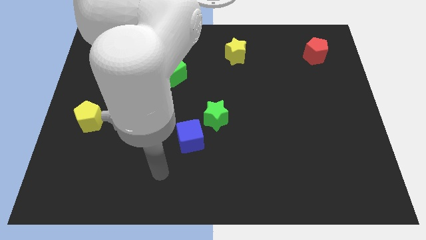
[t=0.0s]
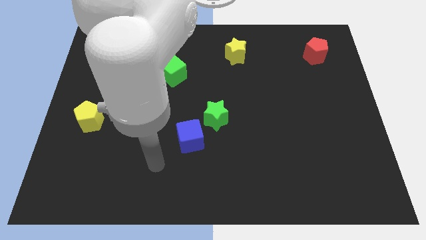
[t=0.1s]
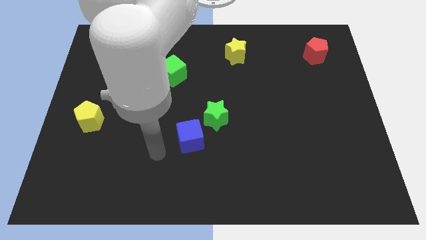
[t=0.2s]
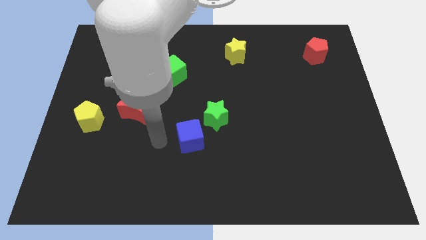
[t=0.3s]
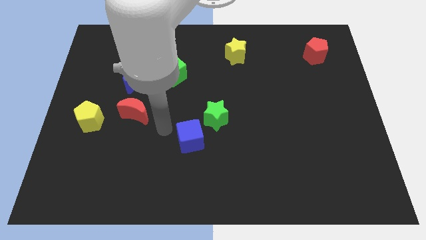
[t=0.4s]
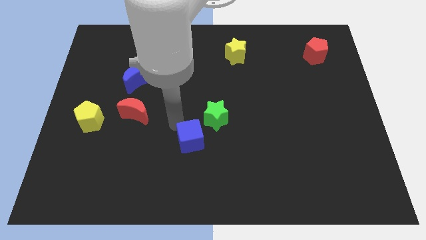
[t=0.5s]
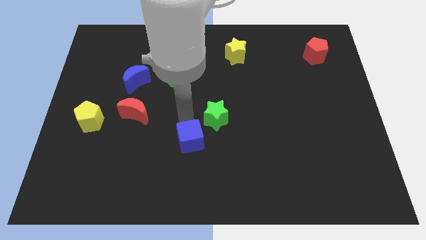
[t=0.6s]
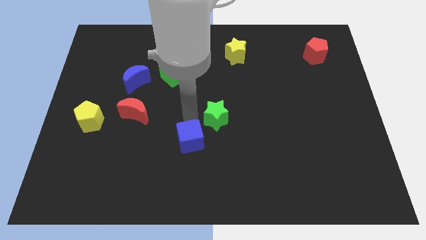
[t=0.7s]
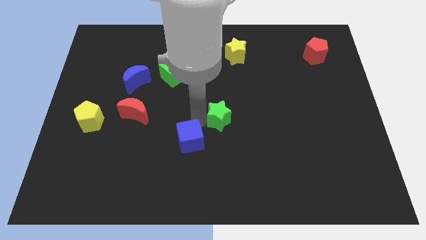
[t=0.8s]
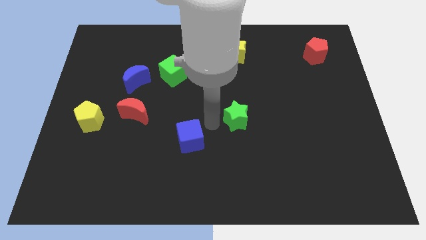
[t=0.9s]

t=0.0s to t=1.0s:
move the blue cube away from the green star

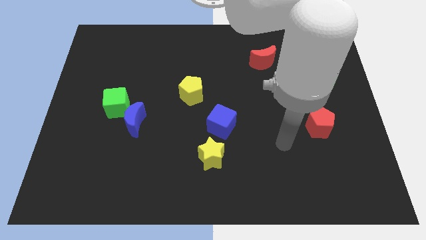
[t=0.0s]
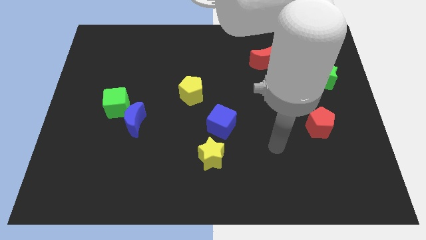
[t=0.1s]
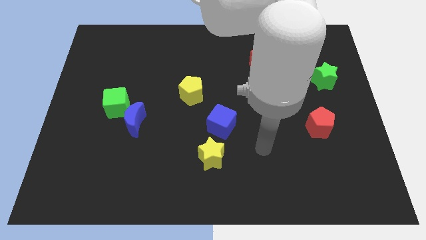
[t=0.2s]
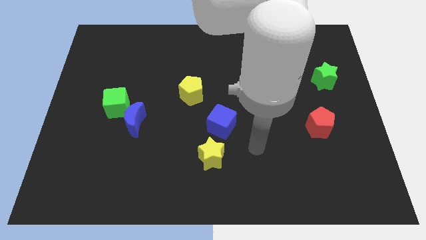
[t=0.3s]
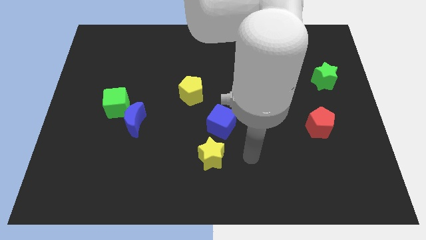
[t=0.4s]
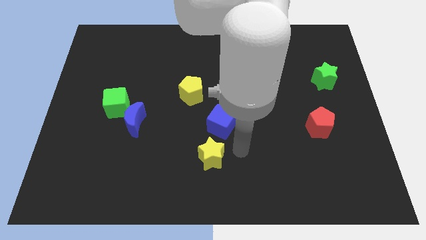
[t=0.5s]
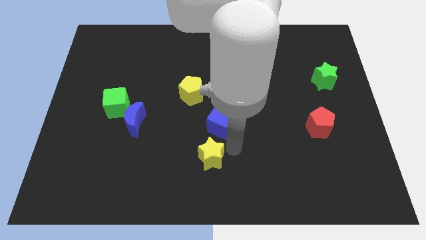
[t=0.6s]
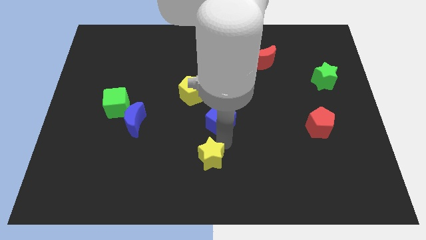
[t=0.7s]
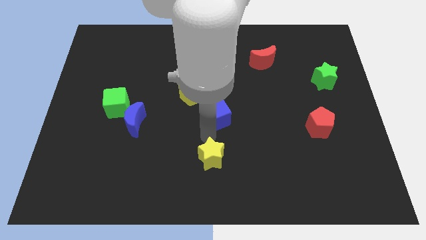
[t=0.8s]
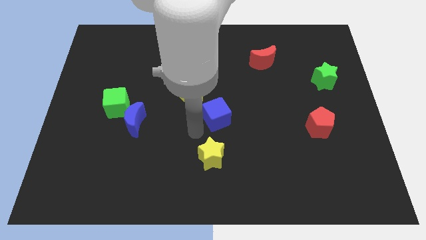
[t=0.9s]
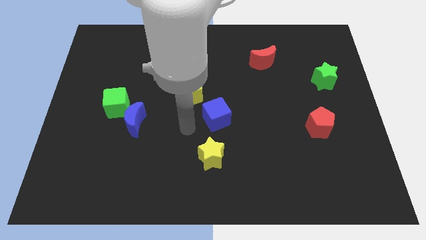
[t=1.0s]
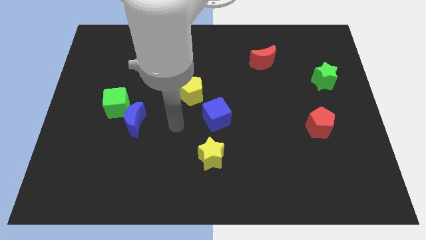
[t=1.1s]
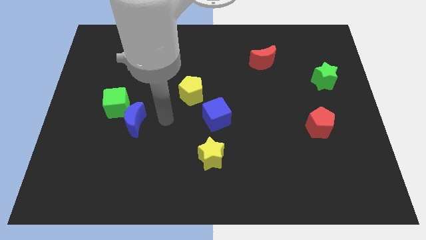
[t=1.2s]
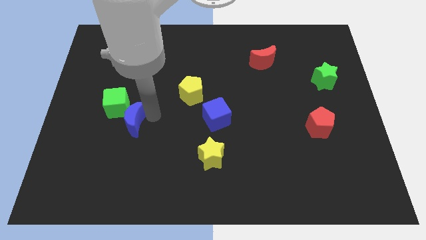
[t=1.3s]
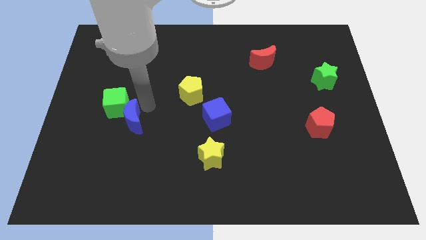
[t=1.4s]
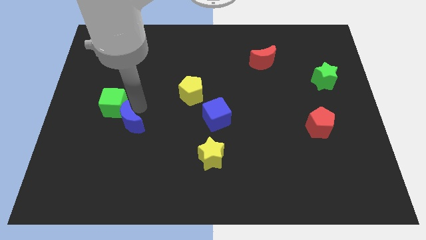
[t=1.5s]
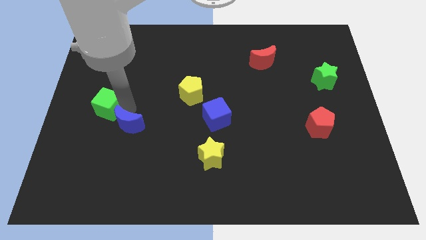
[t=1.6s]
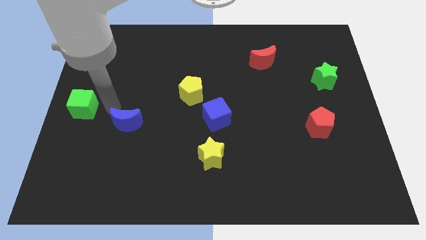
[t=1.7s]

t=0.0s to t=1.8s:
separate the blue moon from the green cube

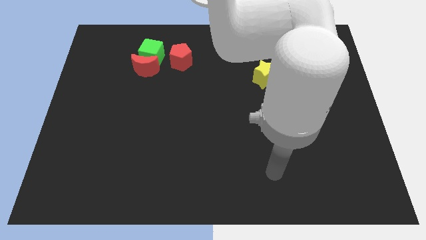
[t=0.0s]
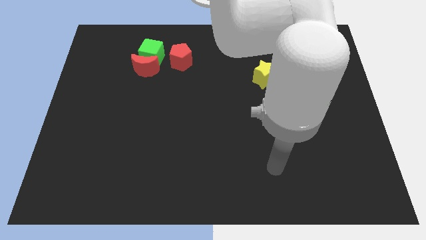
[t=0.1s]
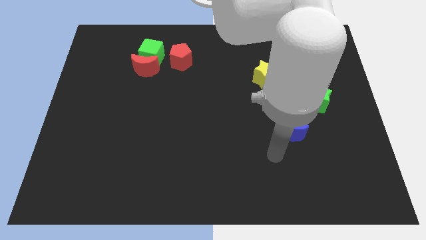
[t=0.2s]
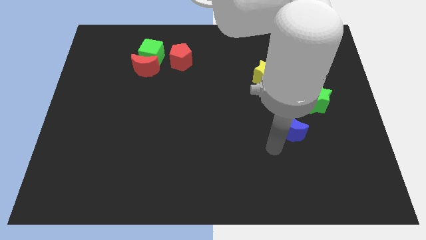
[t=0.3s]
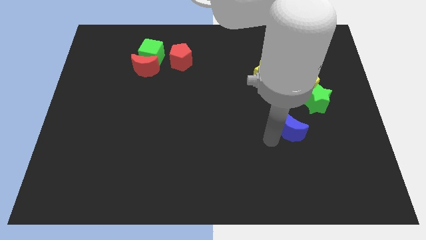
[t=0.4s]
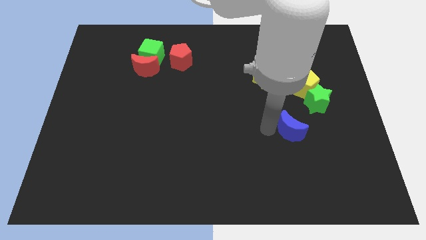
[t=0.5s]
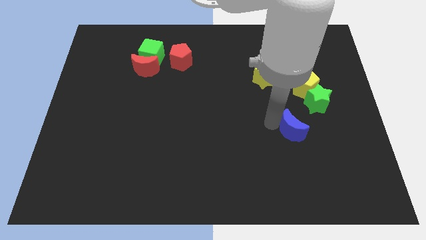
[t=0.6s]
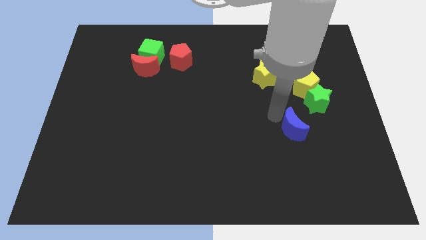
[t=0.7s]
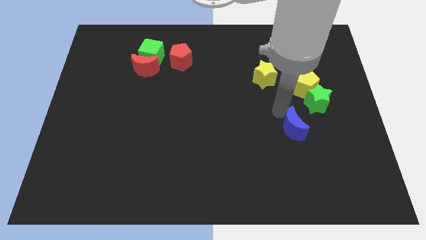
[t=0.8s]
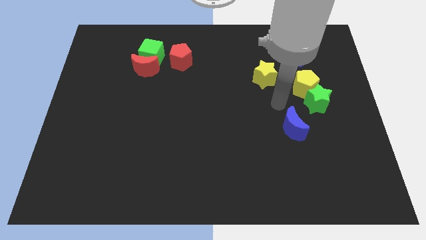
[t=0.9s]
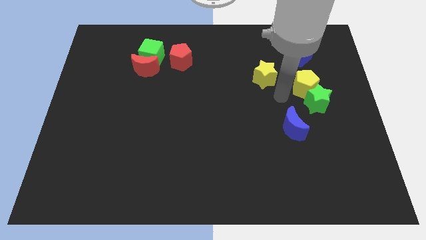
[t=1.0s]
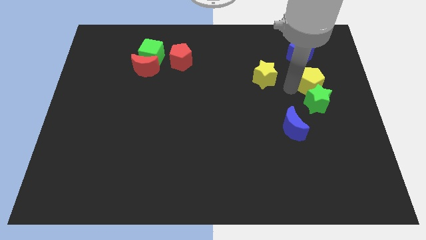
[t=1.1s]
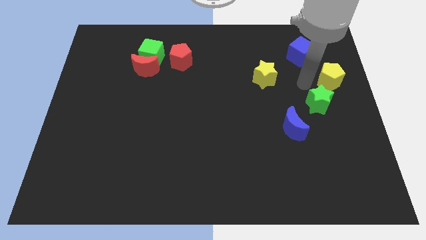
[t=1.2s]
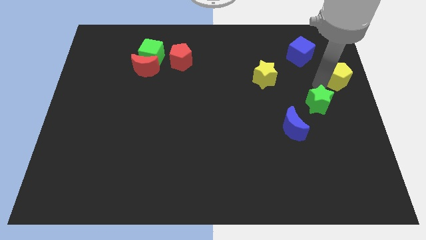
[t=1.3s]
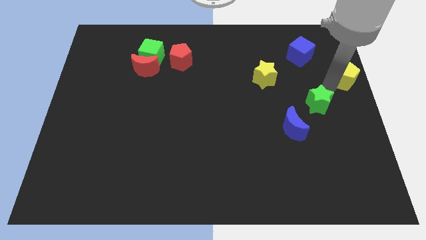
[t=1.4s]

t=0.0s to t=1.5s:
move the green star away from the yellow pentagon

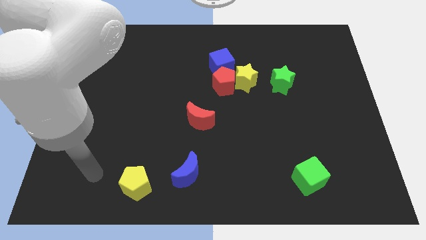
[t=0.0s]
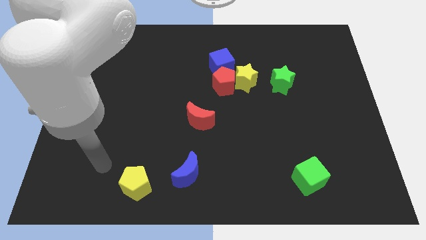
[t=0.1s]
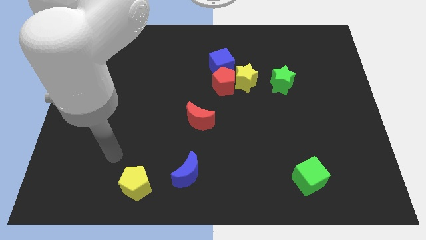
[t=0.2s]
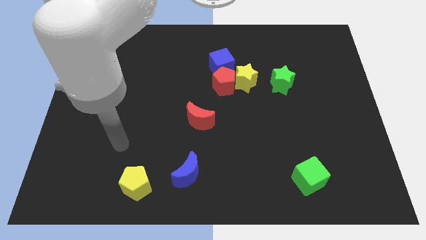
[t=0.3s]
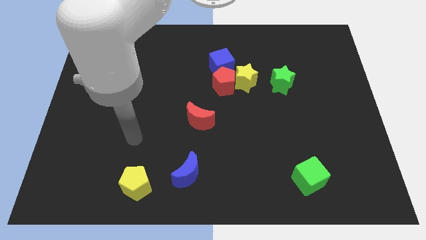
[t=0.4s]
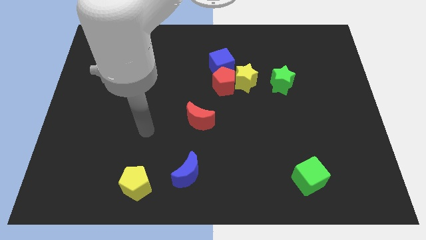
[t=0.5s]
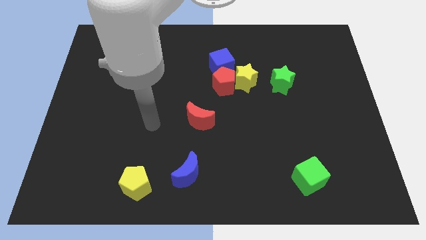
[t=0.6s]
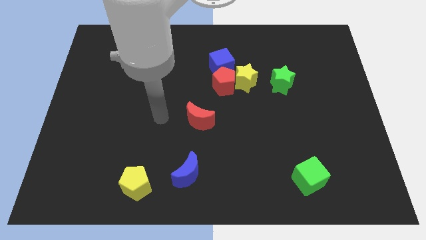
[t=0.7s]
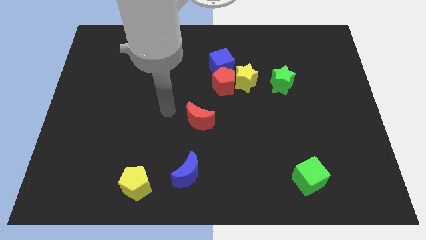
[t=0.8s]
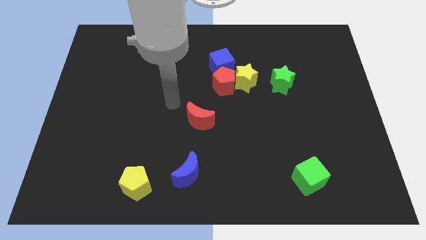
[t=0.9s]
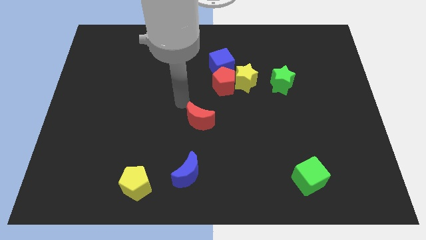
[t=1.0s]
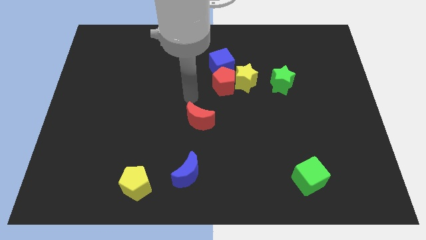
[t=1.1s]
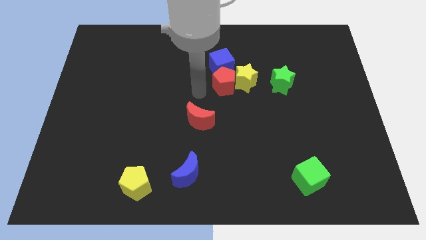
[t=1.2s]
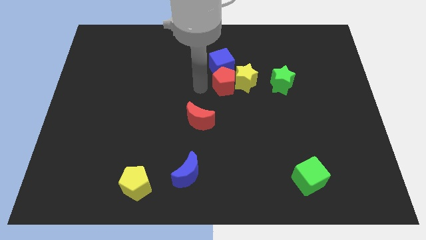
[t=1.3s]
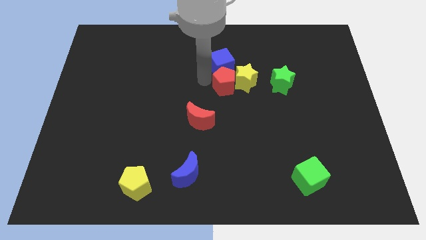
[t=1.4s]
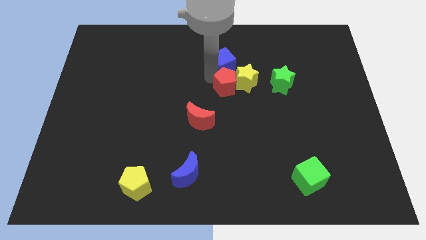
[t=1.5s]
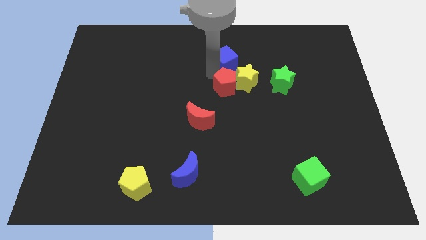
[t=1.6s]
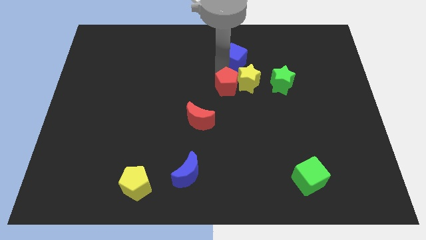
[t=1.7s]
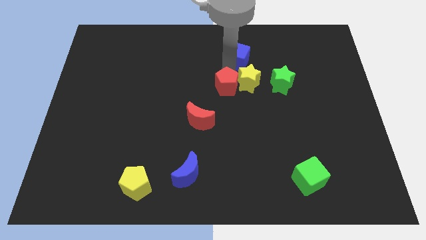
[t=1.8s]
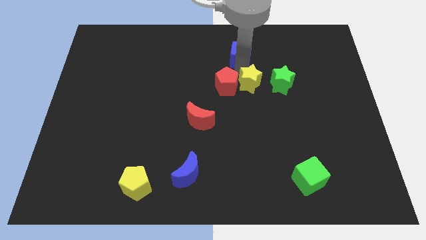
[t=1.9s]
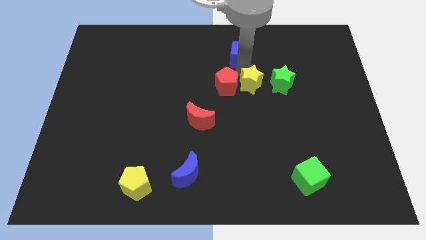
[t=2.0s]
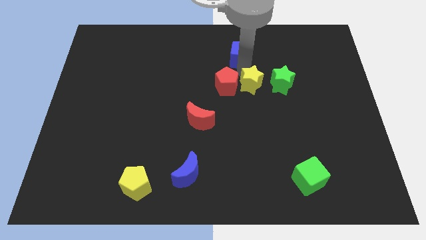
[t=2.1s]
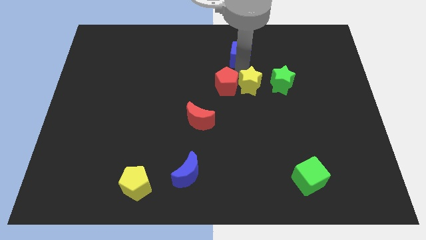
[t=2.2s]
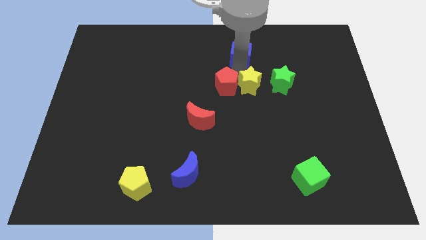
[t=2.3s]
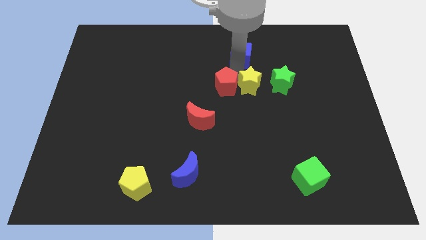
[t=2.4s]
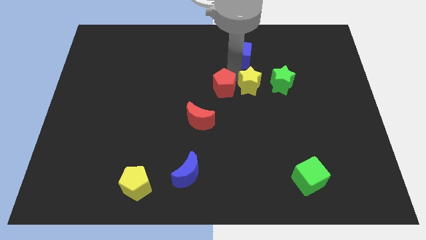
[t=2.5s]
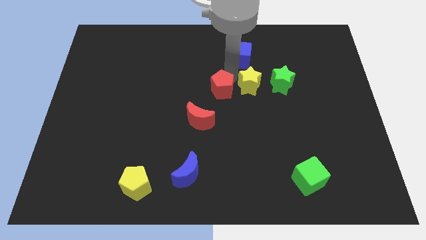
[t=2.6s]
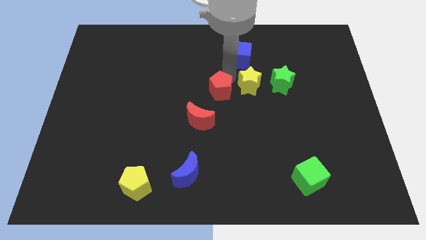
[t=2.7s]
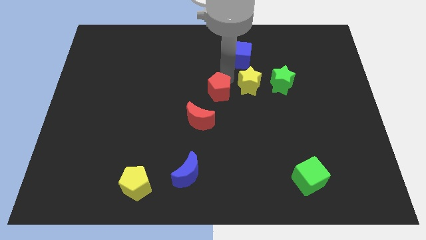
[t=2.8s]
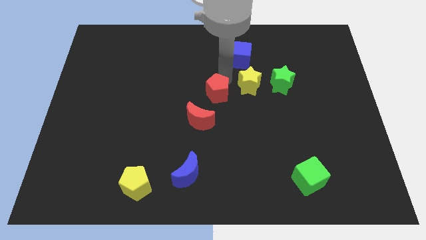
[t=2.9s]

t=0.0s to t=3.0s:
separate the red pentagon from the yellow star and blue cube

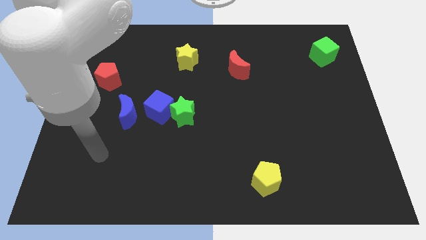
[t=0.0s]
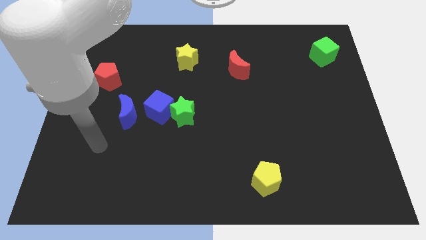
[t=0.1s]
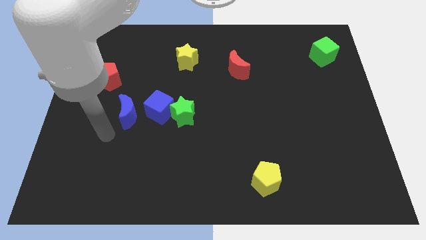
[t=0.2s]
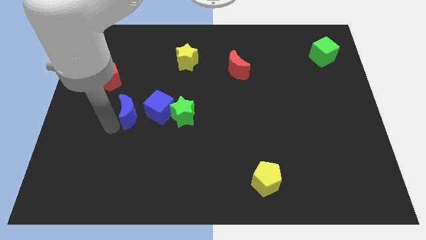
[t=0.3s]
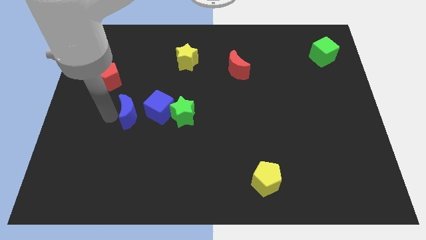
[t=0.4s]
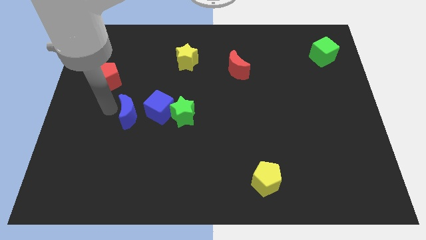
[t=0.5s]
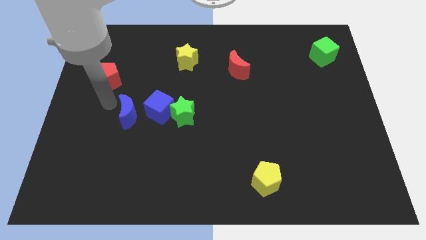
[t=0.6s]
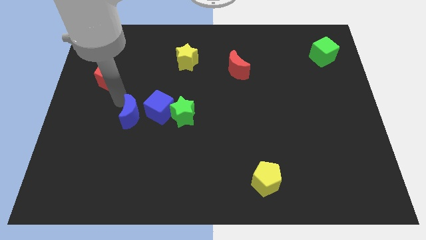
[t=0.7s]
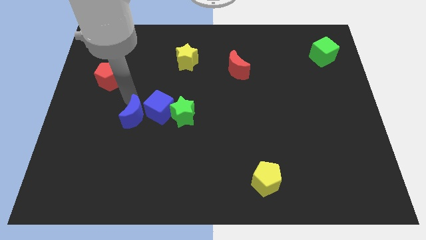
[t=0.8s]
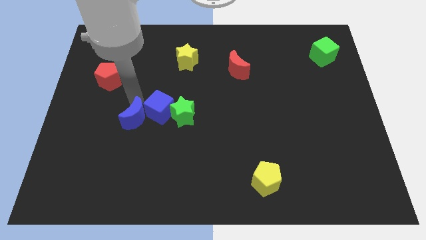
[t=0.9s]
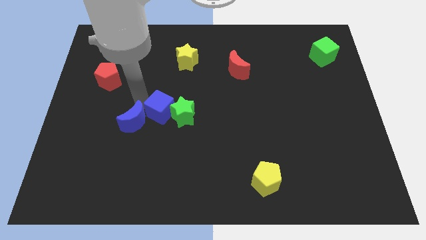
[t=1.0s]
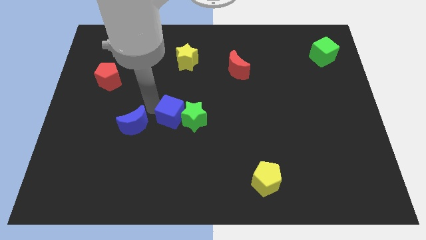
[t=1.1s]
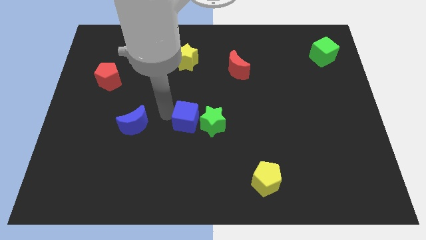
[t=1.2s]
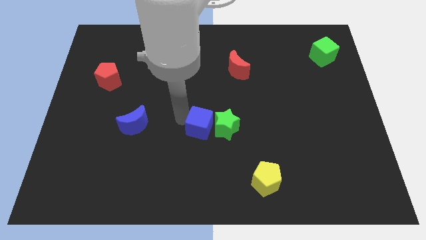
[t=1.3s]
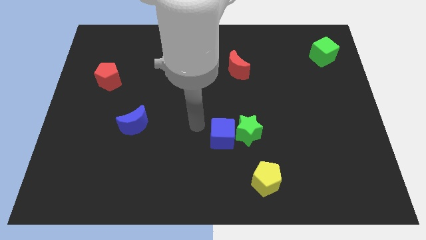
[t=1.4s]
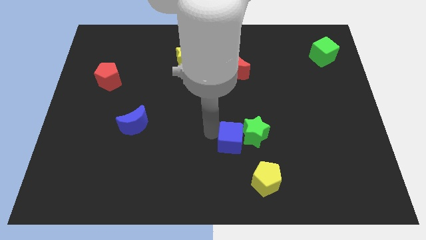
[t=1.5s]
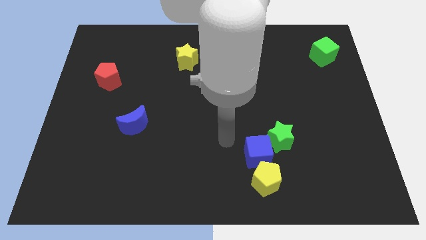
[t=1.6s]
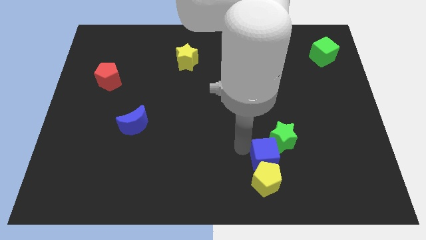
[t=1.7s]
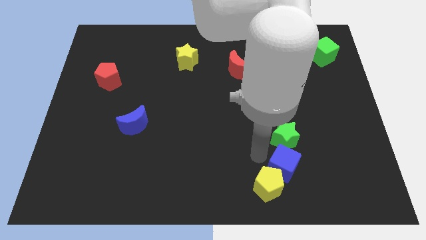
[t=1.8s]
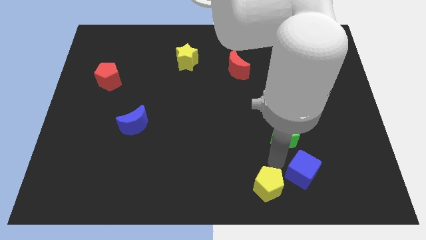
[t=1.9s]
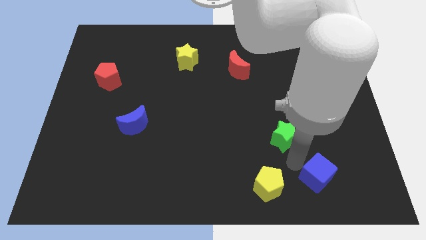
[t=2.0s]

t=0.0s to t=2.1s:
pull the green star apart from the blue cube
